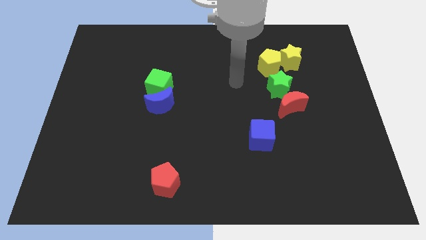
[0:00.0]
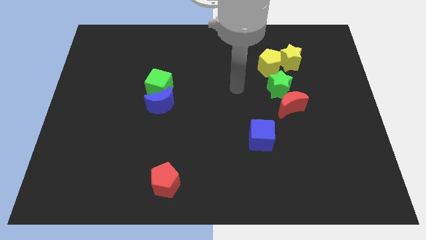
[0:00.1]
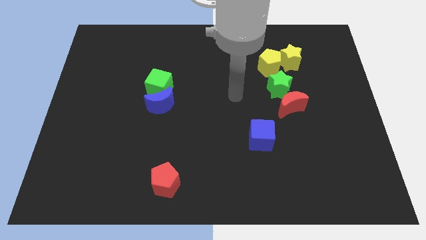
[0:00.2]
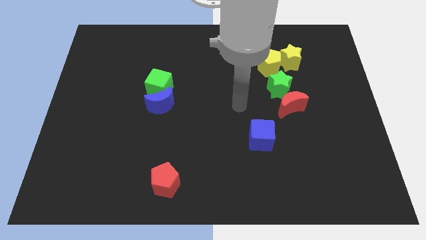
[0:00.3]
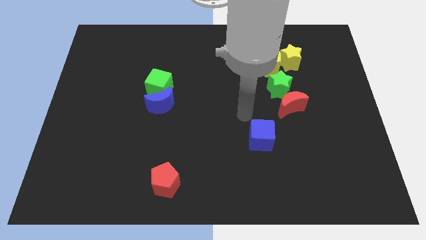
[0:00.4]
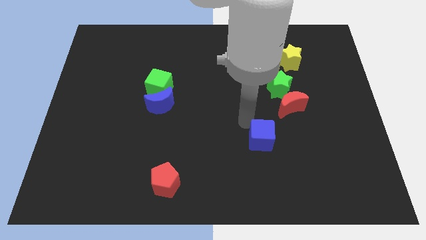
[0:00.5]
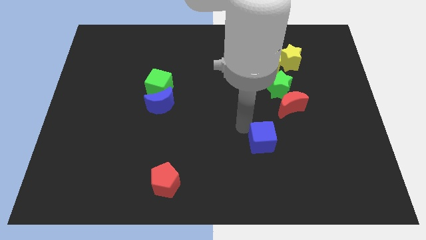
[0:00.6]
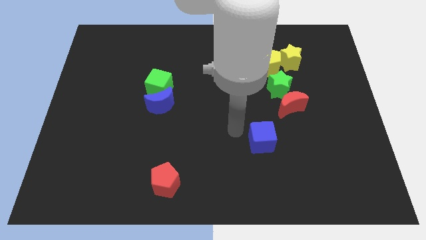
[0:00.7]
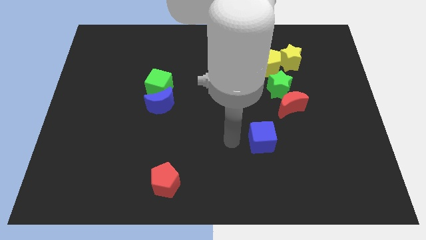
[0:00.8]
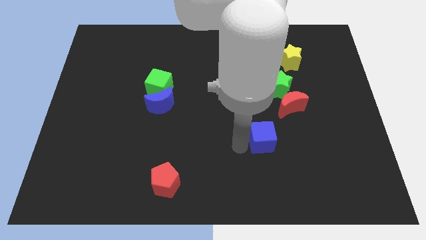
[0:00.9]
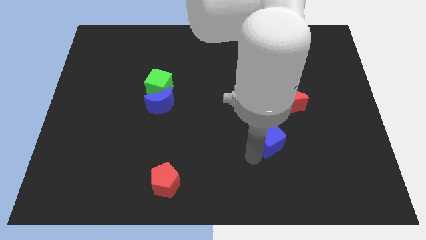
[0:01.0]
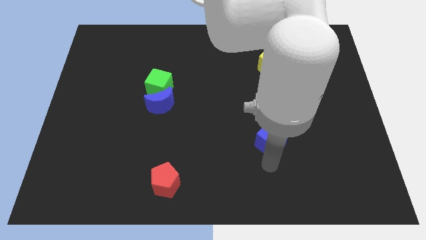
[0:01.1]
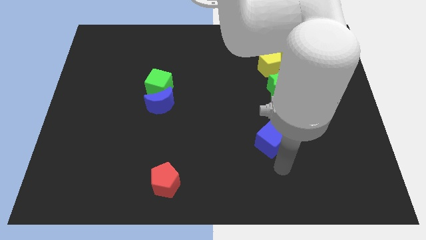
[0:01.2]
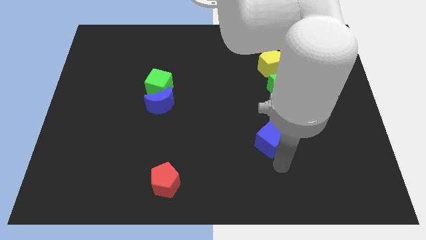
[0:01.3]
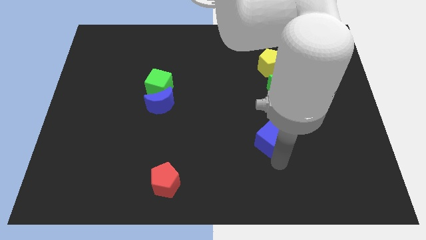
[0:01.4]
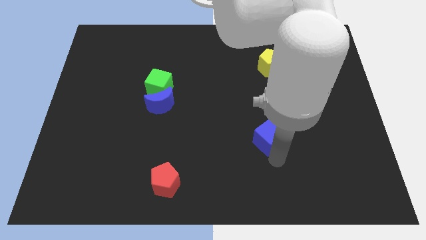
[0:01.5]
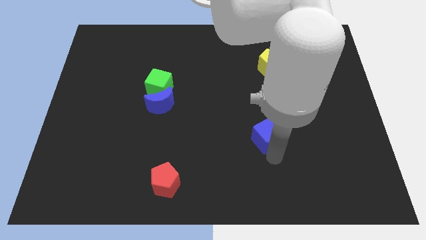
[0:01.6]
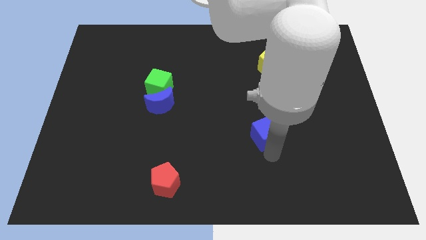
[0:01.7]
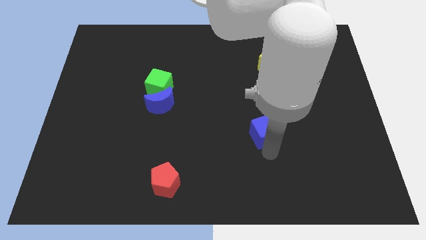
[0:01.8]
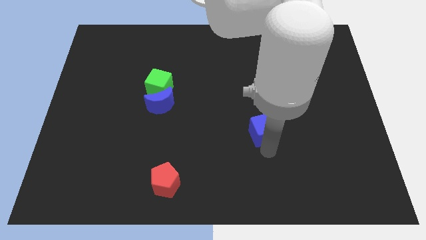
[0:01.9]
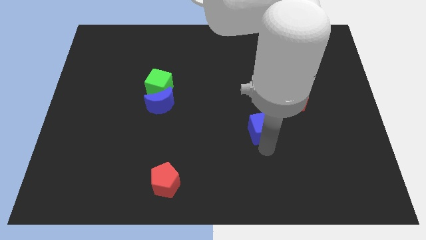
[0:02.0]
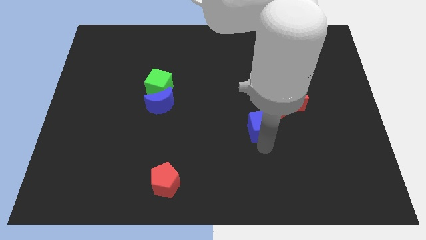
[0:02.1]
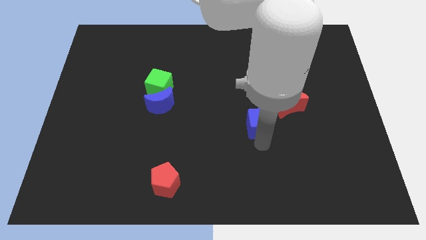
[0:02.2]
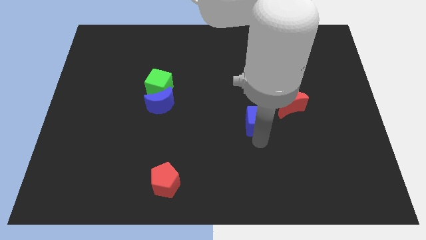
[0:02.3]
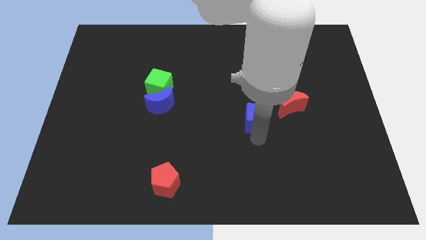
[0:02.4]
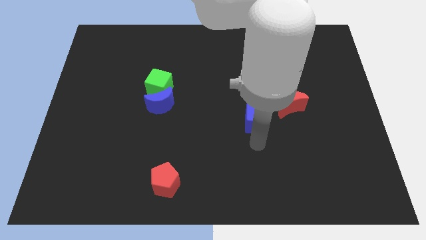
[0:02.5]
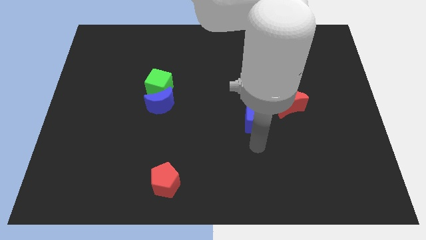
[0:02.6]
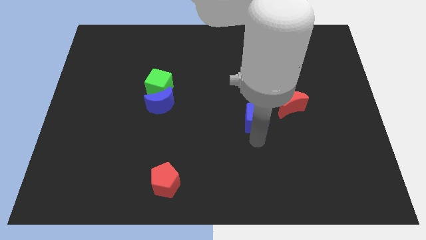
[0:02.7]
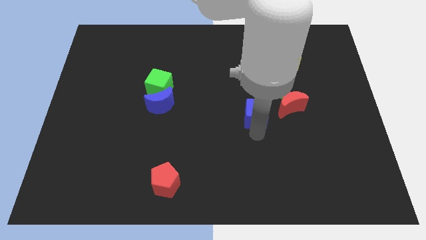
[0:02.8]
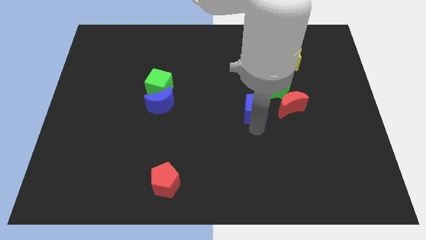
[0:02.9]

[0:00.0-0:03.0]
move the blue cube up a little bit

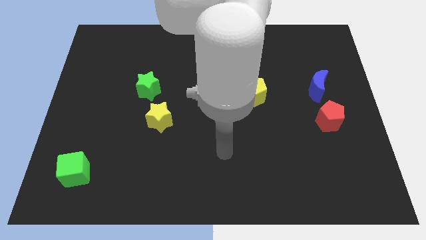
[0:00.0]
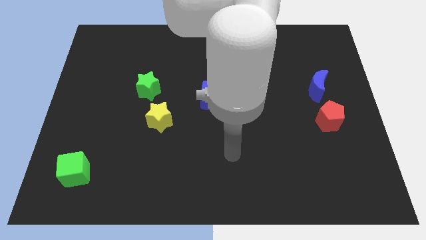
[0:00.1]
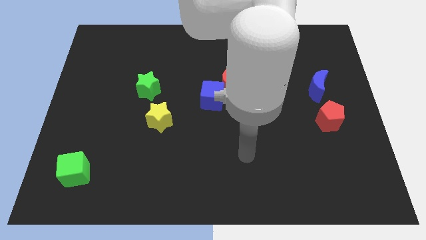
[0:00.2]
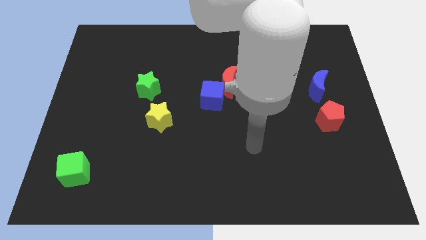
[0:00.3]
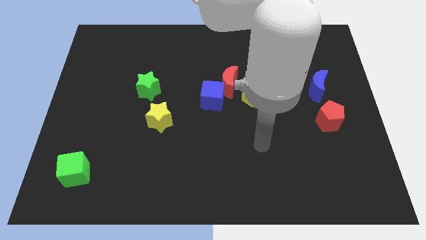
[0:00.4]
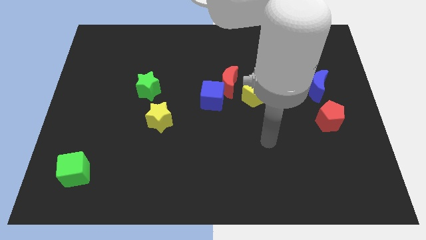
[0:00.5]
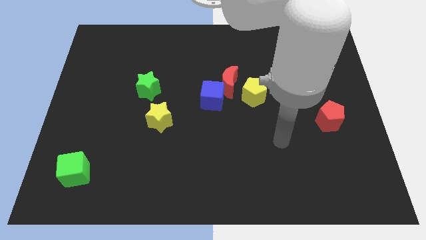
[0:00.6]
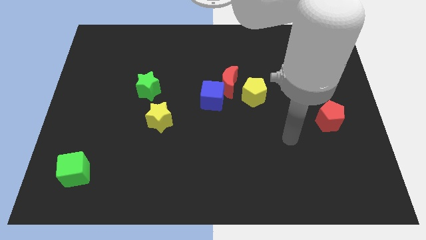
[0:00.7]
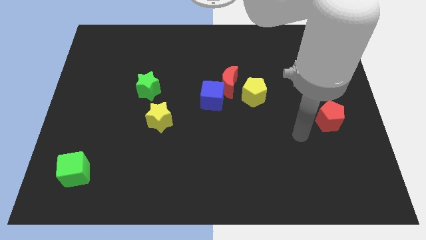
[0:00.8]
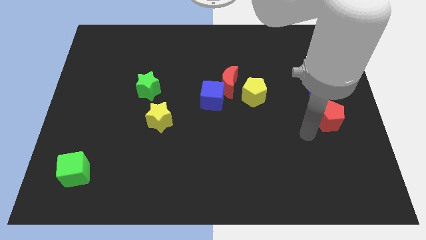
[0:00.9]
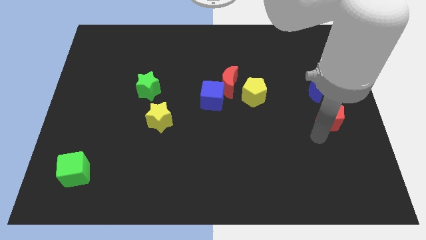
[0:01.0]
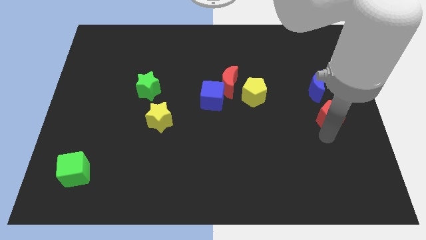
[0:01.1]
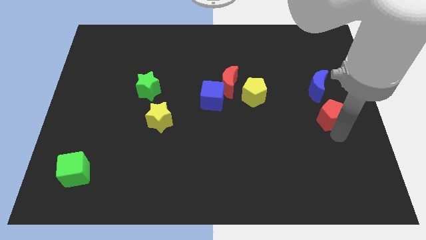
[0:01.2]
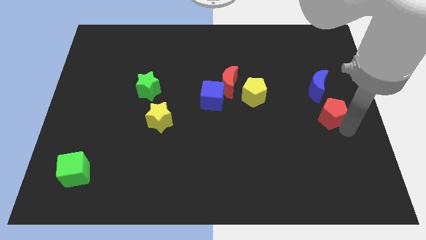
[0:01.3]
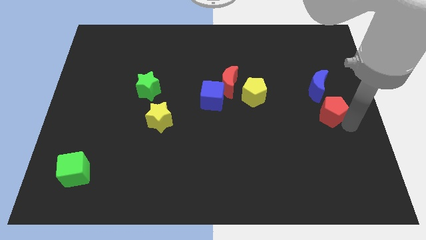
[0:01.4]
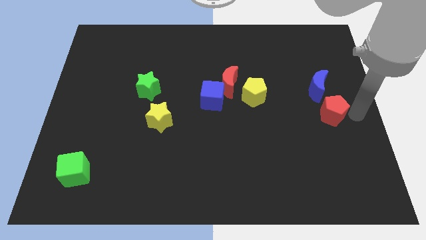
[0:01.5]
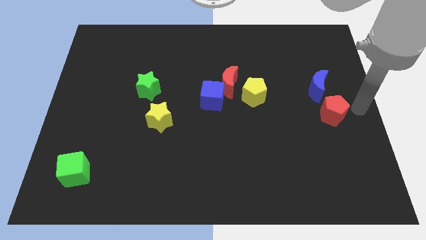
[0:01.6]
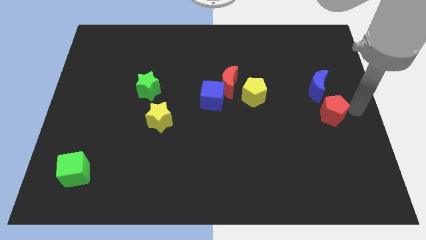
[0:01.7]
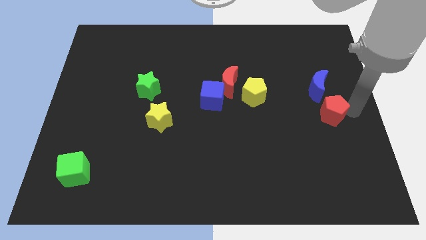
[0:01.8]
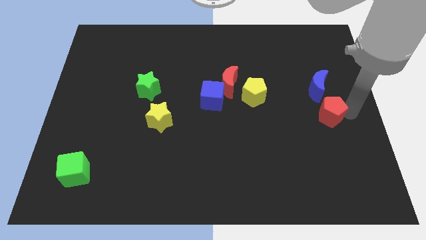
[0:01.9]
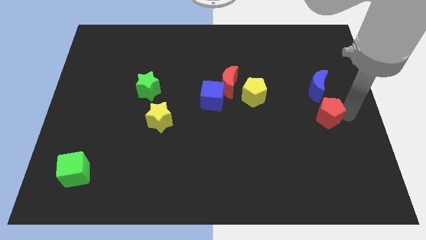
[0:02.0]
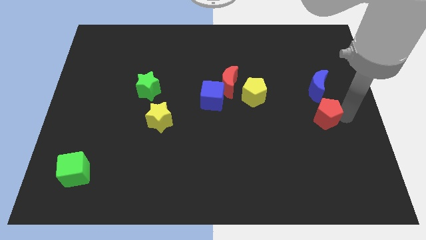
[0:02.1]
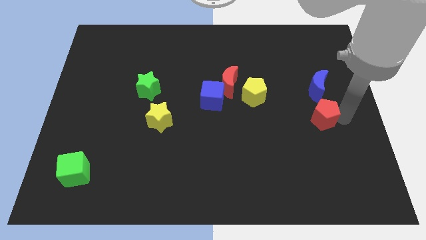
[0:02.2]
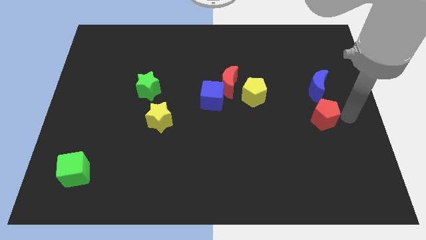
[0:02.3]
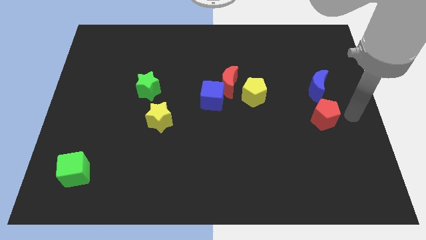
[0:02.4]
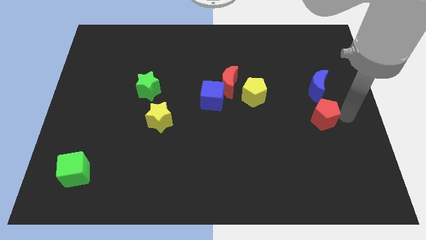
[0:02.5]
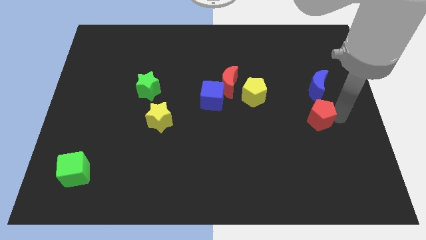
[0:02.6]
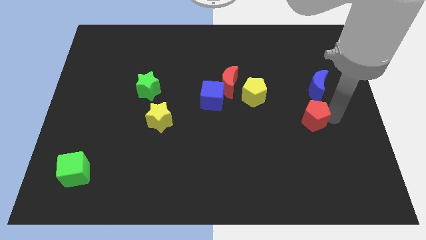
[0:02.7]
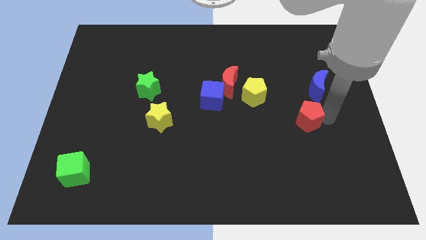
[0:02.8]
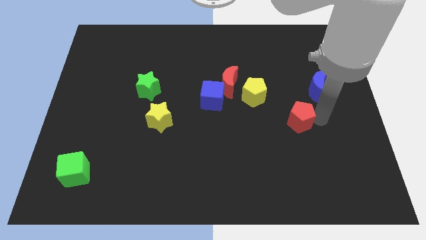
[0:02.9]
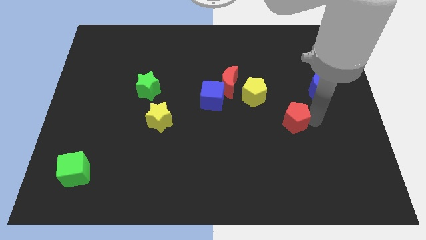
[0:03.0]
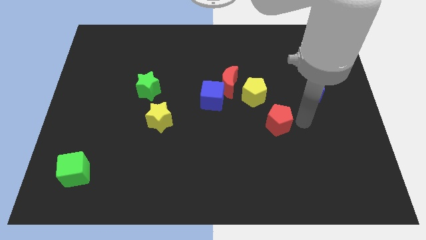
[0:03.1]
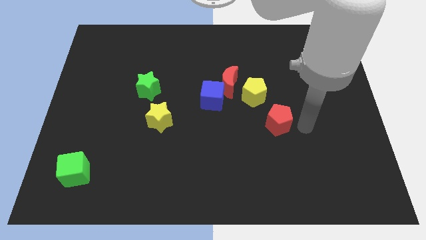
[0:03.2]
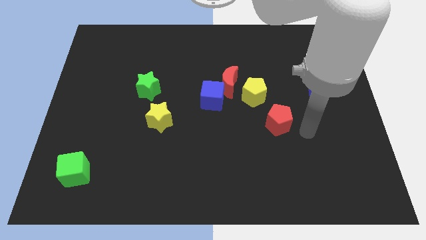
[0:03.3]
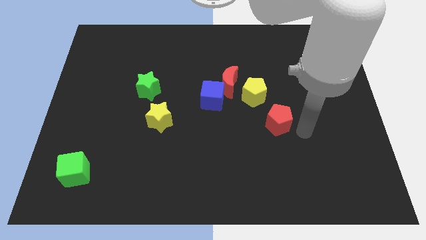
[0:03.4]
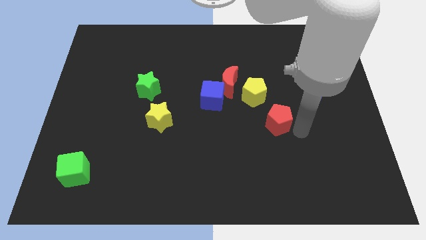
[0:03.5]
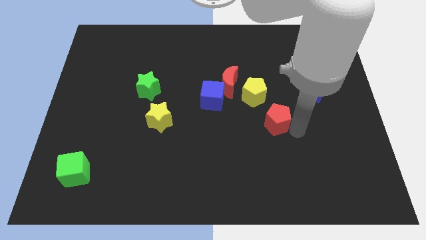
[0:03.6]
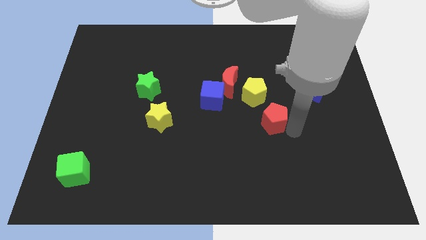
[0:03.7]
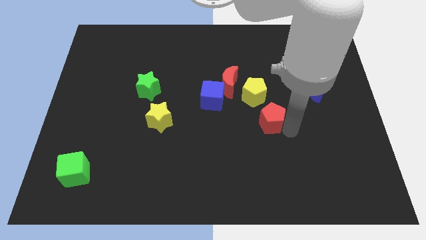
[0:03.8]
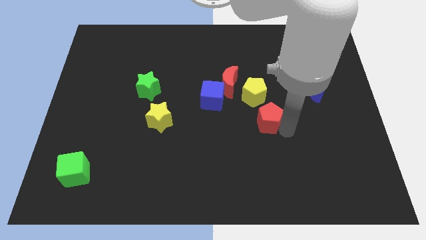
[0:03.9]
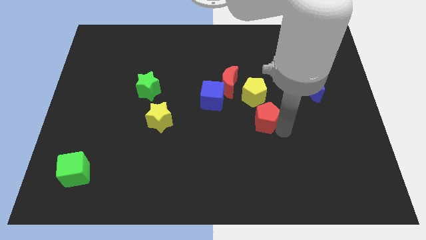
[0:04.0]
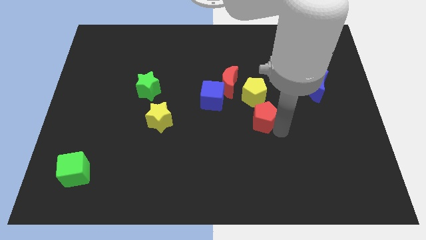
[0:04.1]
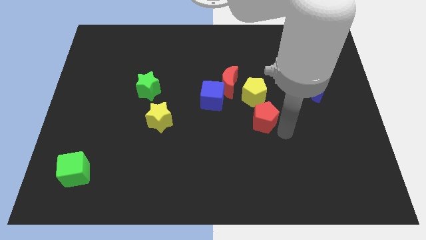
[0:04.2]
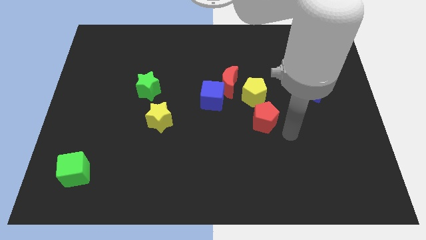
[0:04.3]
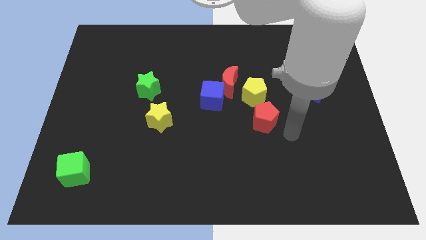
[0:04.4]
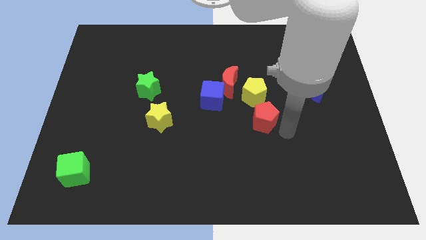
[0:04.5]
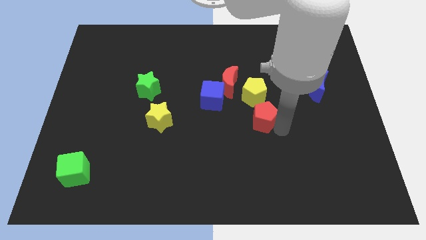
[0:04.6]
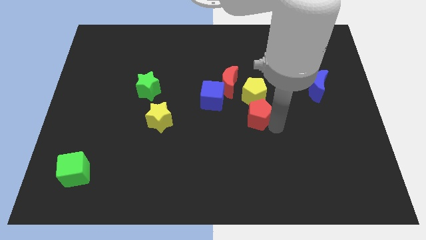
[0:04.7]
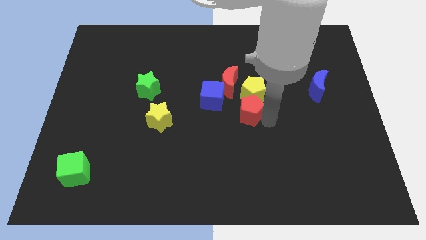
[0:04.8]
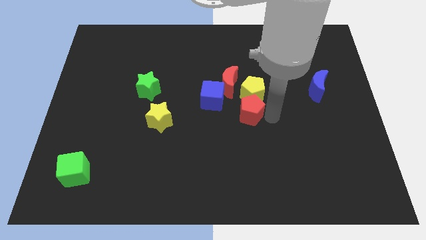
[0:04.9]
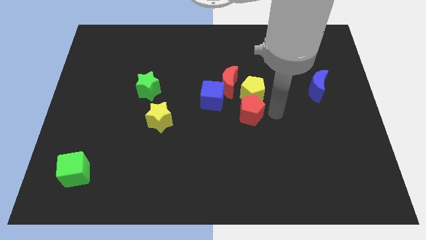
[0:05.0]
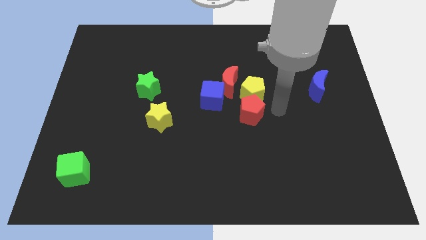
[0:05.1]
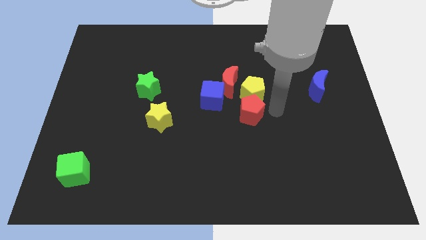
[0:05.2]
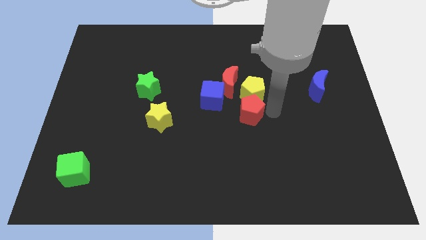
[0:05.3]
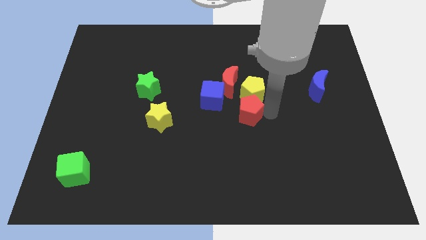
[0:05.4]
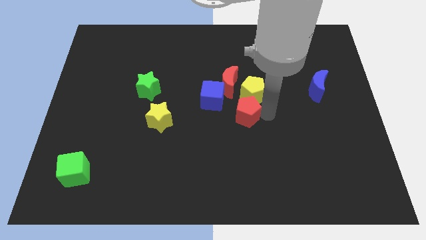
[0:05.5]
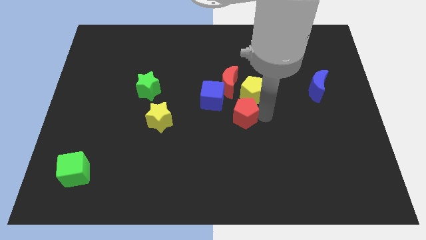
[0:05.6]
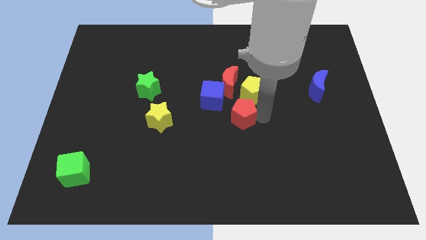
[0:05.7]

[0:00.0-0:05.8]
move the red pentagon to the left
